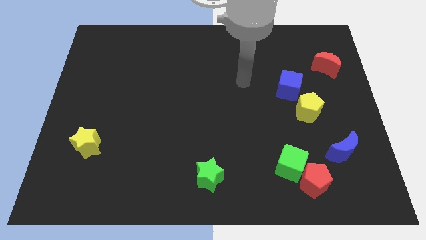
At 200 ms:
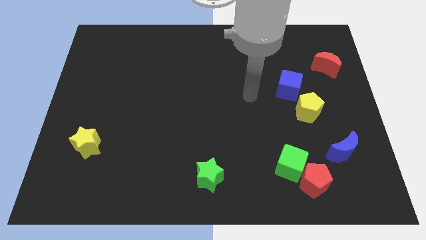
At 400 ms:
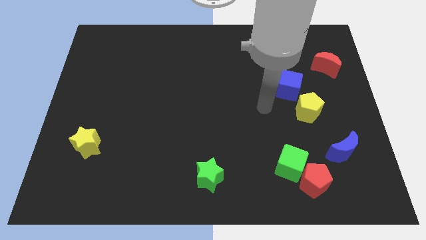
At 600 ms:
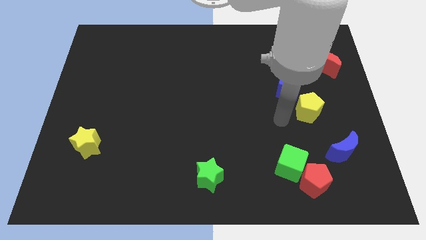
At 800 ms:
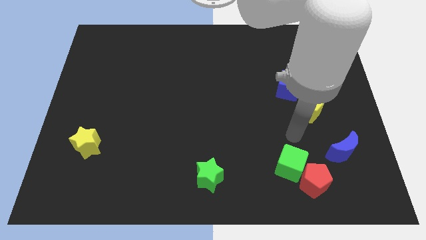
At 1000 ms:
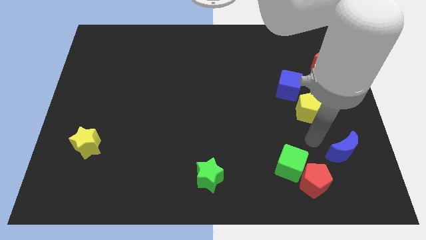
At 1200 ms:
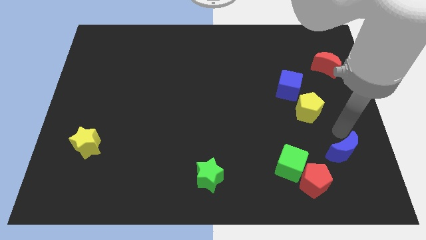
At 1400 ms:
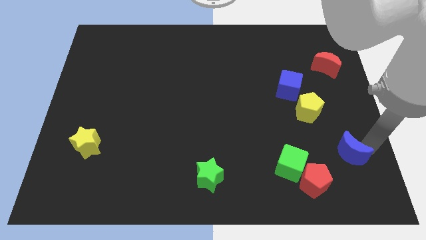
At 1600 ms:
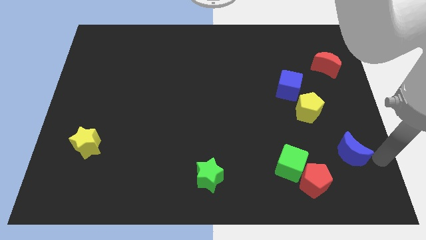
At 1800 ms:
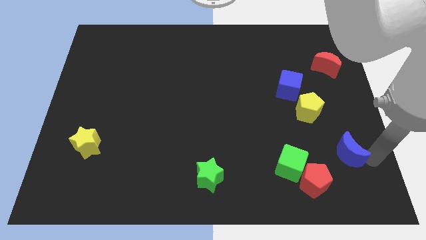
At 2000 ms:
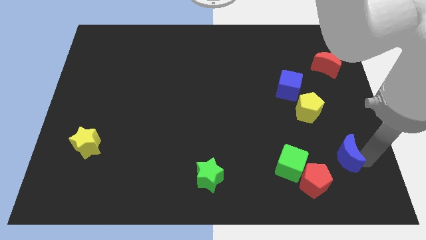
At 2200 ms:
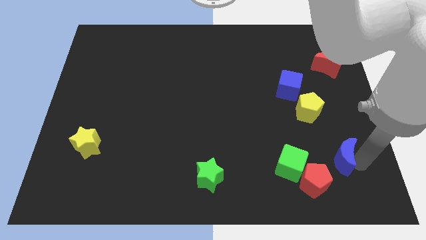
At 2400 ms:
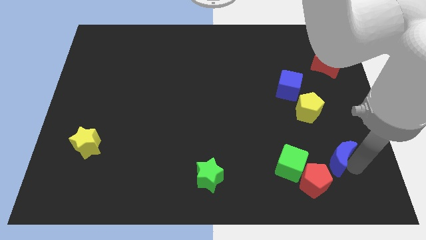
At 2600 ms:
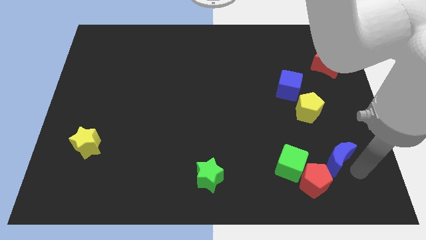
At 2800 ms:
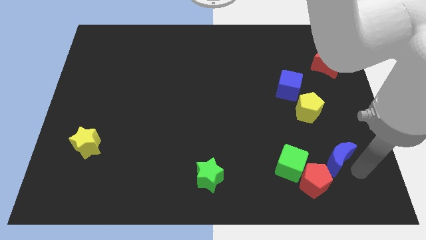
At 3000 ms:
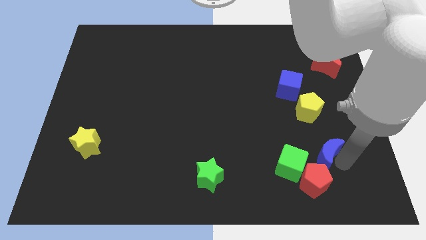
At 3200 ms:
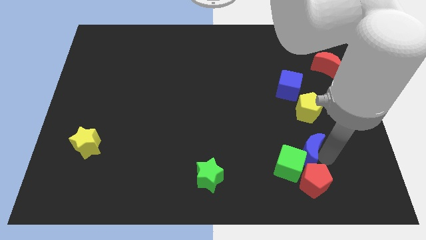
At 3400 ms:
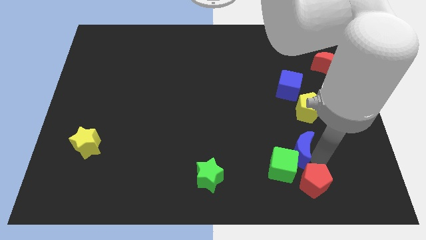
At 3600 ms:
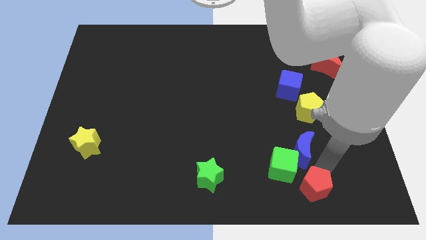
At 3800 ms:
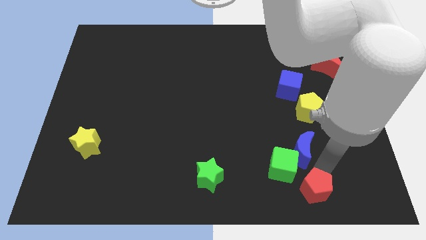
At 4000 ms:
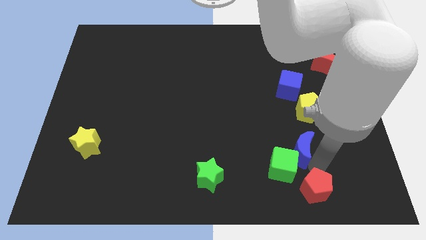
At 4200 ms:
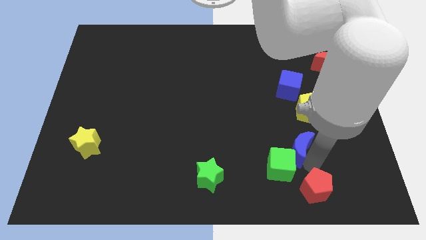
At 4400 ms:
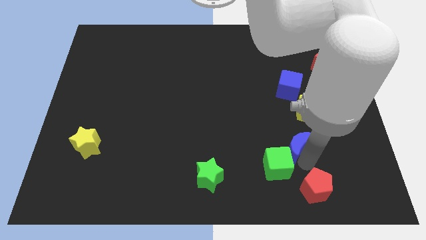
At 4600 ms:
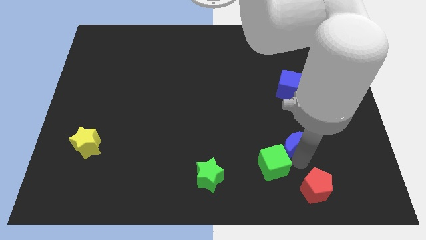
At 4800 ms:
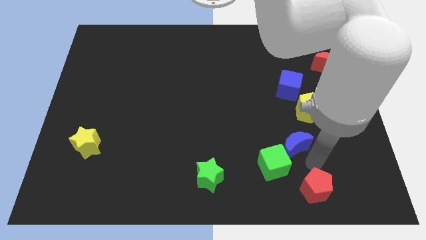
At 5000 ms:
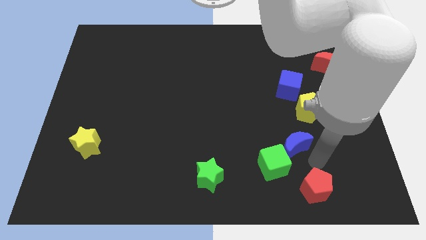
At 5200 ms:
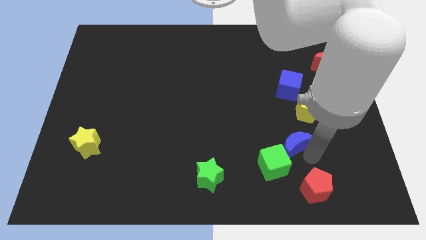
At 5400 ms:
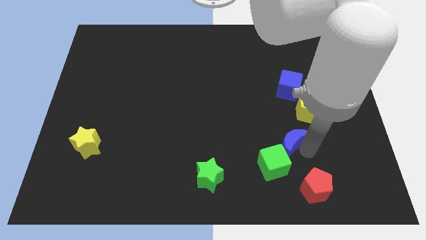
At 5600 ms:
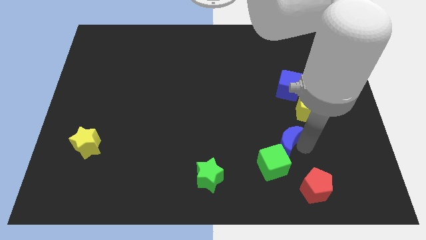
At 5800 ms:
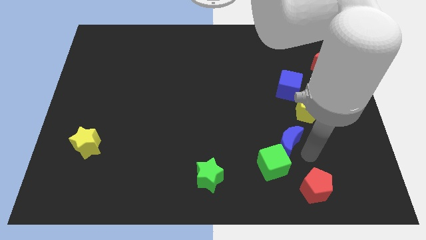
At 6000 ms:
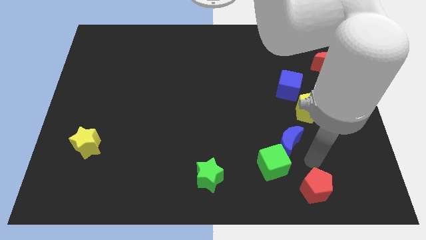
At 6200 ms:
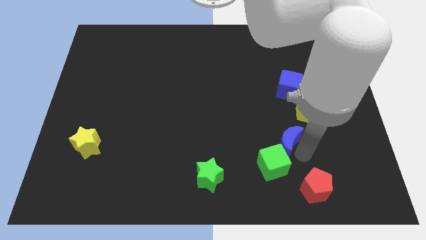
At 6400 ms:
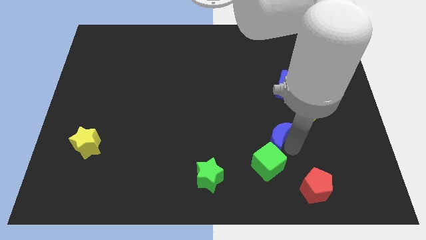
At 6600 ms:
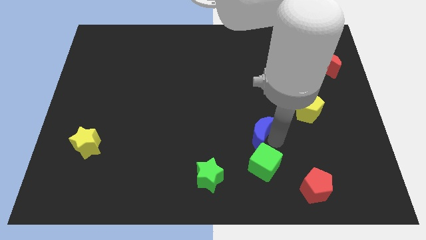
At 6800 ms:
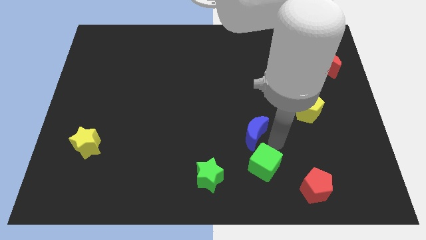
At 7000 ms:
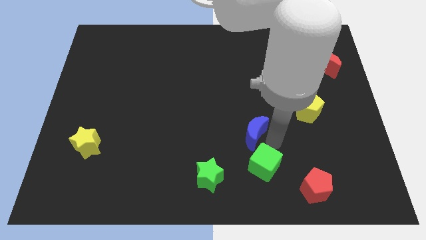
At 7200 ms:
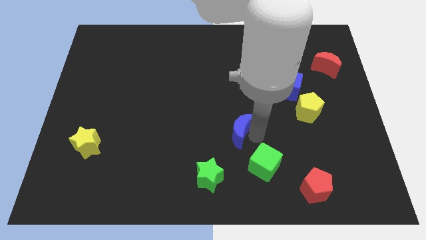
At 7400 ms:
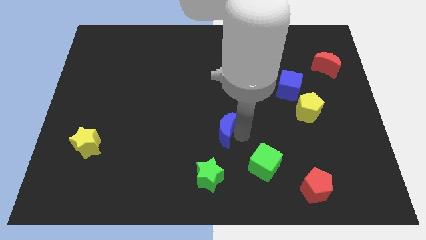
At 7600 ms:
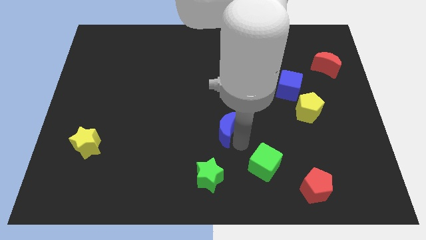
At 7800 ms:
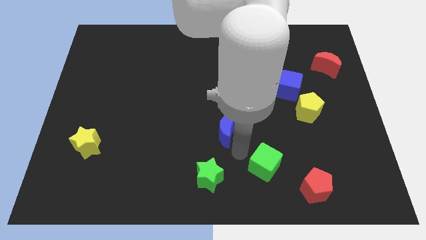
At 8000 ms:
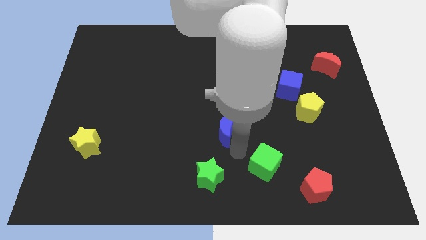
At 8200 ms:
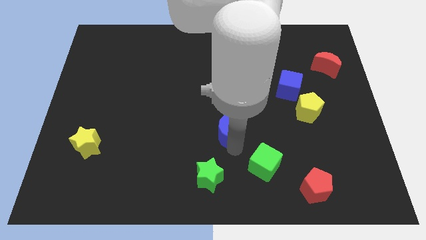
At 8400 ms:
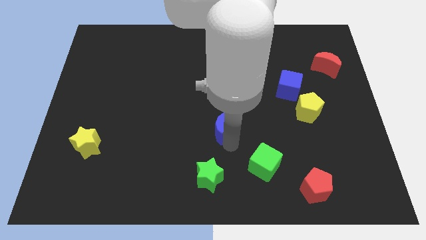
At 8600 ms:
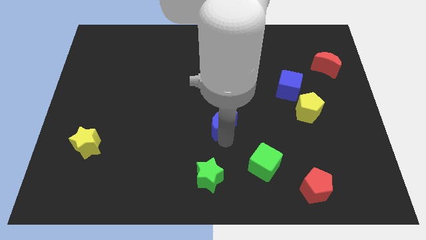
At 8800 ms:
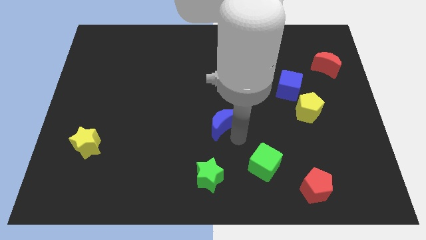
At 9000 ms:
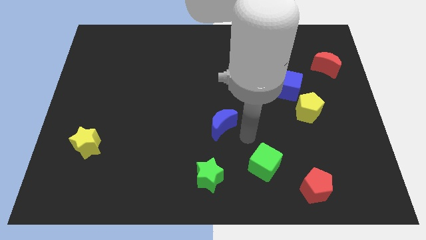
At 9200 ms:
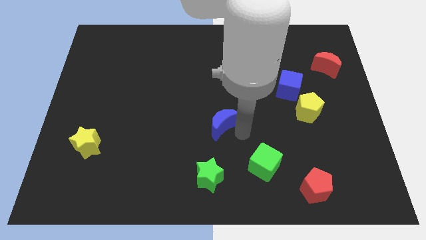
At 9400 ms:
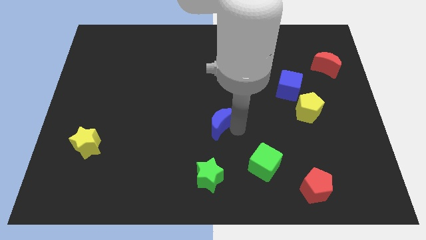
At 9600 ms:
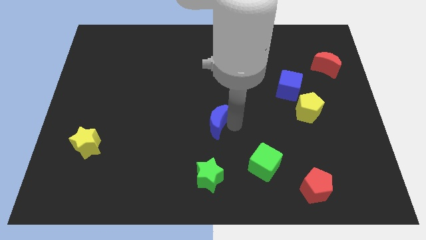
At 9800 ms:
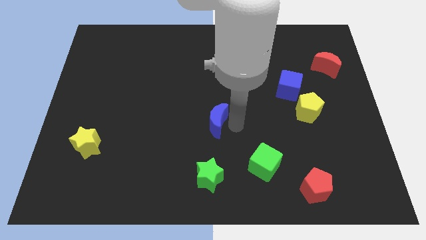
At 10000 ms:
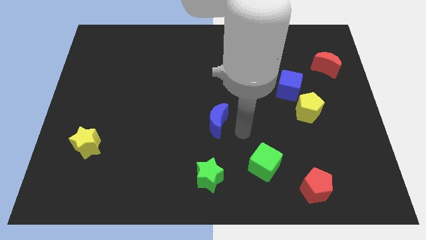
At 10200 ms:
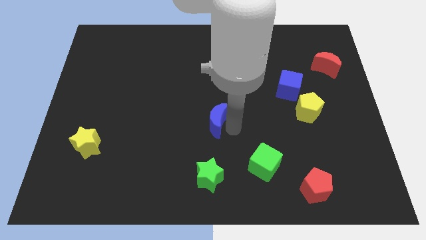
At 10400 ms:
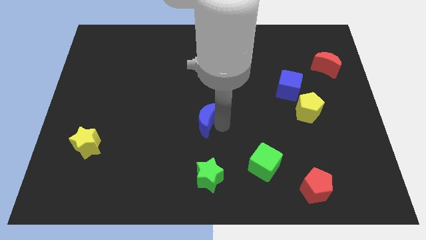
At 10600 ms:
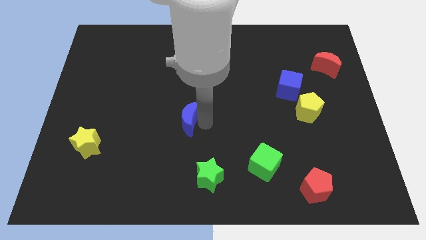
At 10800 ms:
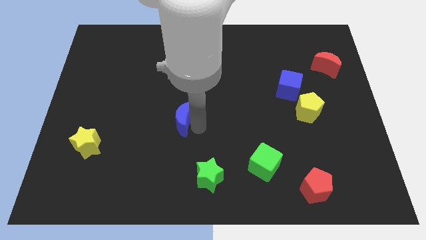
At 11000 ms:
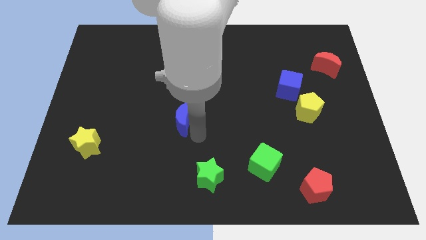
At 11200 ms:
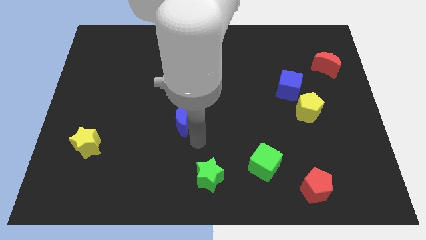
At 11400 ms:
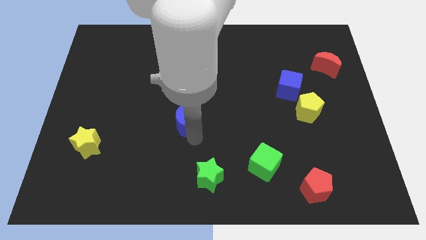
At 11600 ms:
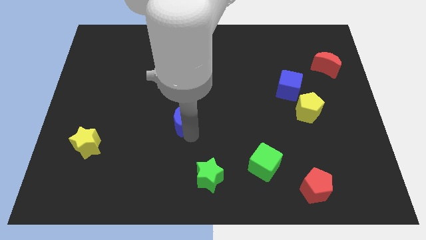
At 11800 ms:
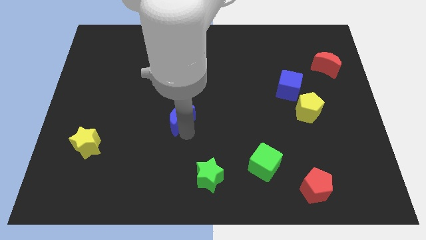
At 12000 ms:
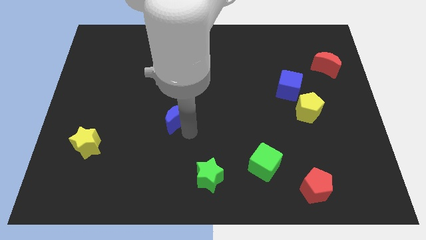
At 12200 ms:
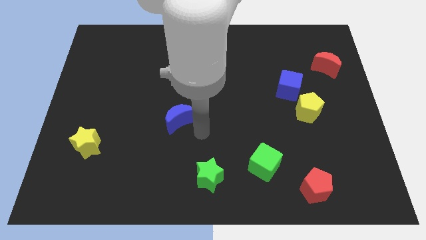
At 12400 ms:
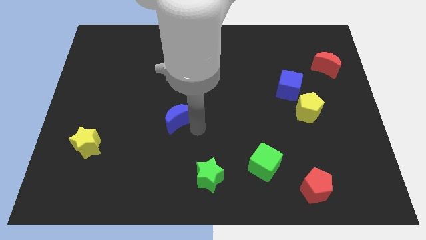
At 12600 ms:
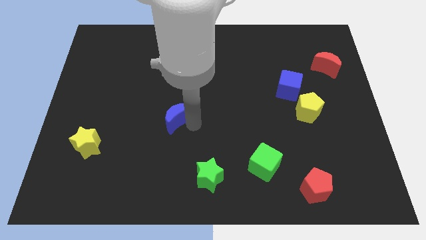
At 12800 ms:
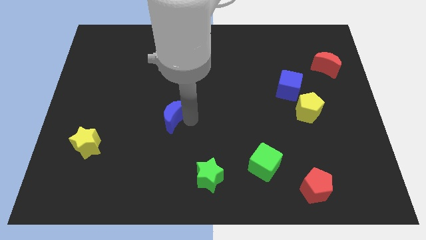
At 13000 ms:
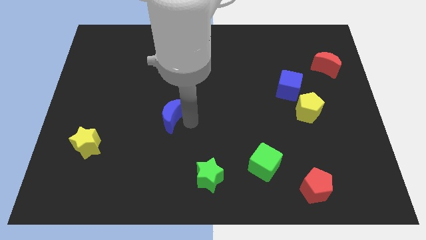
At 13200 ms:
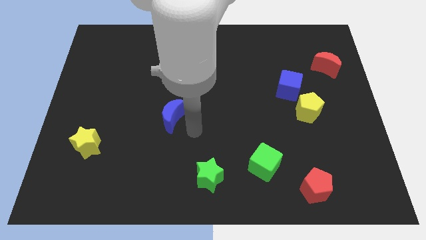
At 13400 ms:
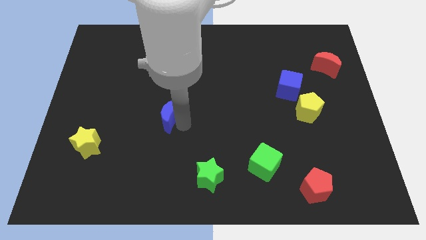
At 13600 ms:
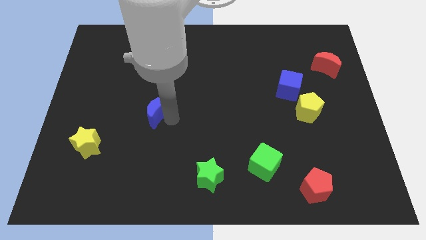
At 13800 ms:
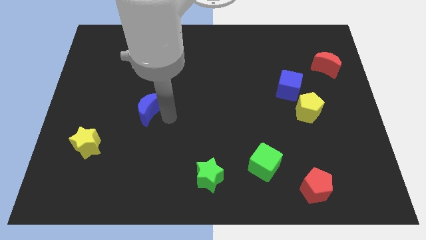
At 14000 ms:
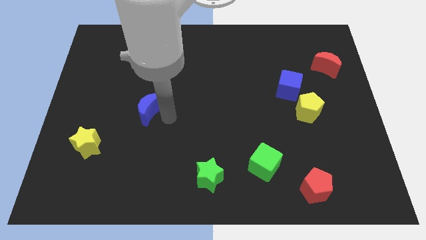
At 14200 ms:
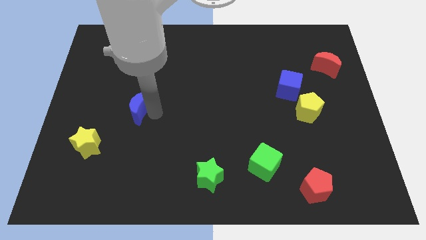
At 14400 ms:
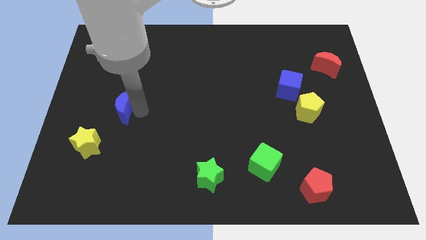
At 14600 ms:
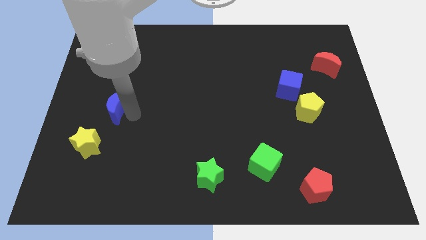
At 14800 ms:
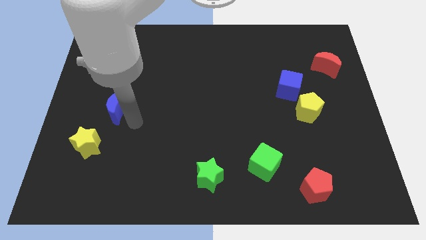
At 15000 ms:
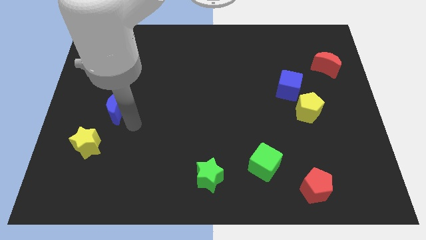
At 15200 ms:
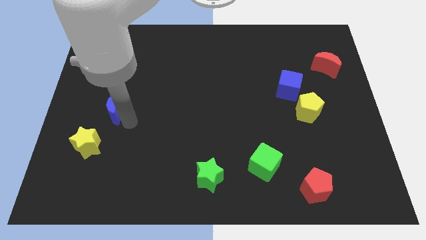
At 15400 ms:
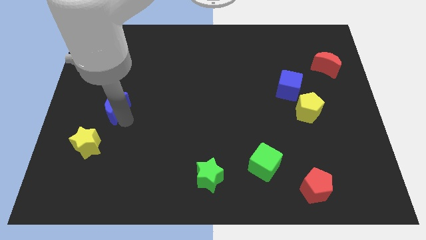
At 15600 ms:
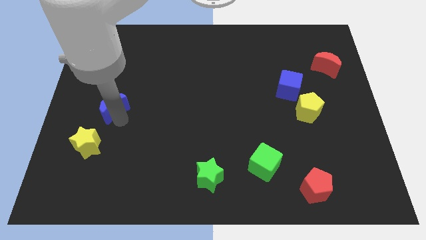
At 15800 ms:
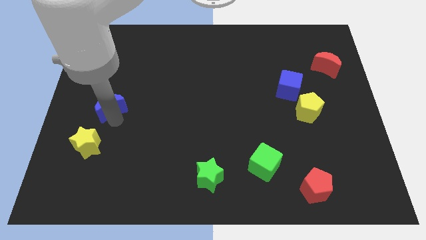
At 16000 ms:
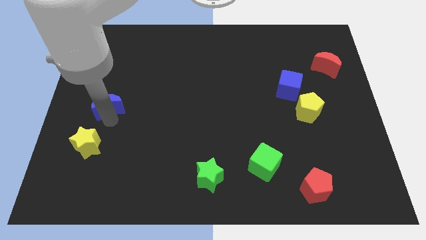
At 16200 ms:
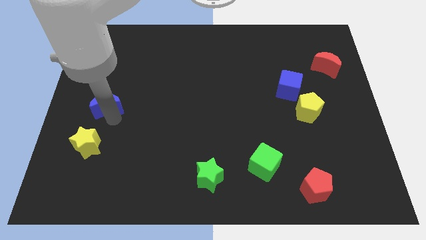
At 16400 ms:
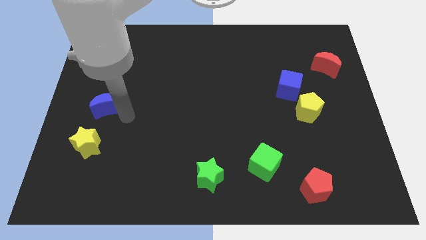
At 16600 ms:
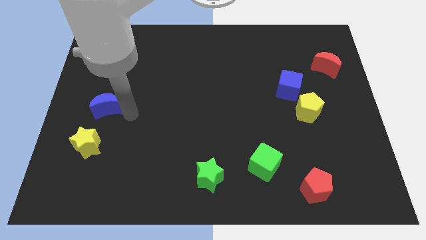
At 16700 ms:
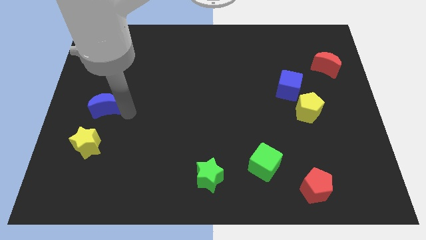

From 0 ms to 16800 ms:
push the blue moon to the left side
